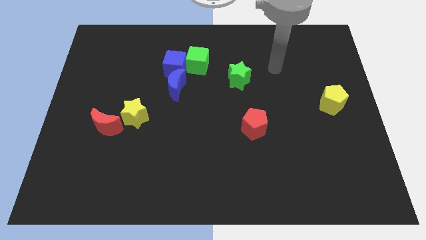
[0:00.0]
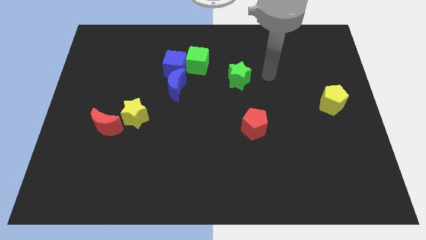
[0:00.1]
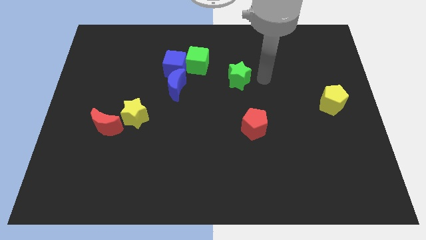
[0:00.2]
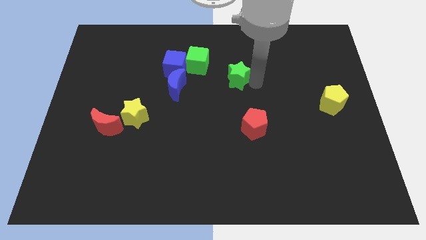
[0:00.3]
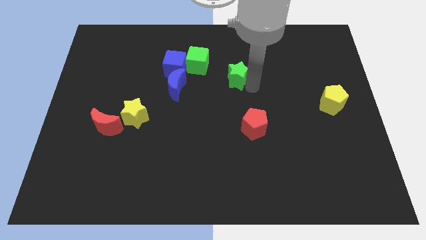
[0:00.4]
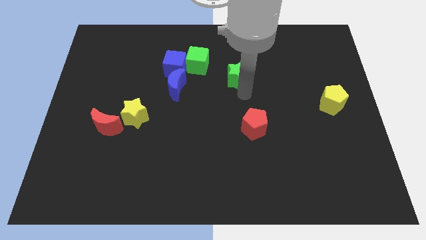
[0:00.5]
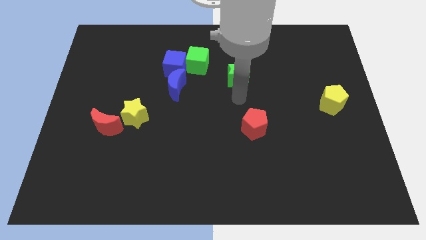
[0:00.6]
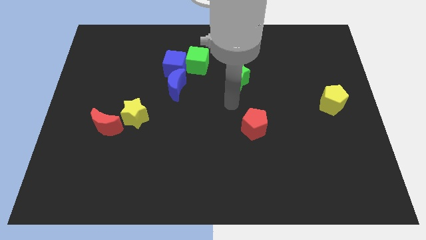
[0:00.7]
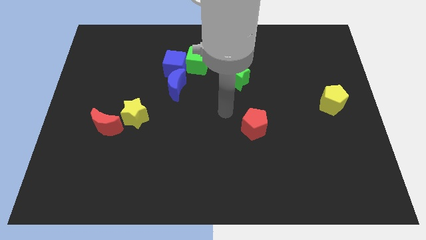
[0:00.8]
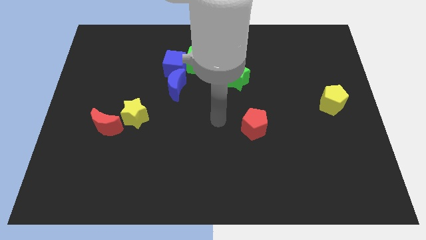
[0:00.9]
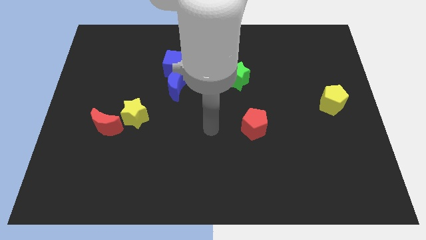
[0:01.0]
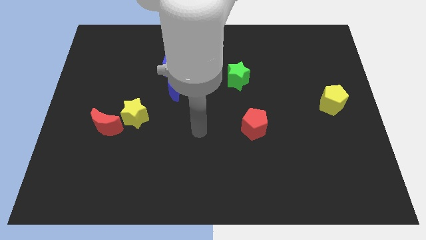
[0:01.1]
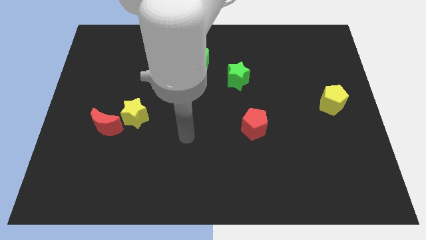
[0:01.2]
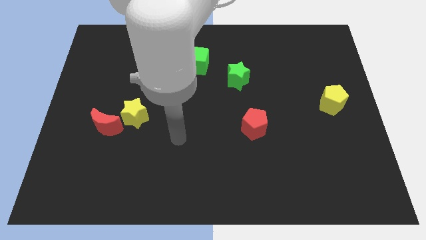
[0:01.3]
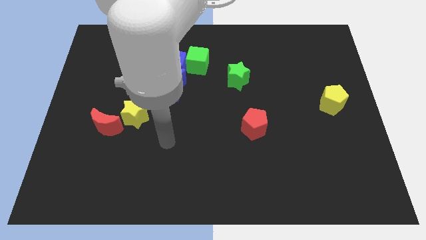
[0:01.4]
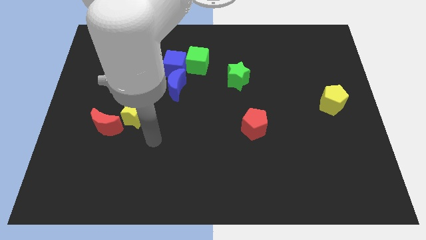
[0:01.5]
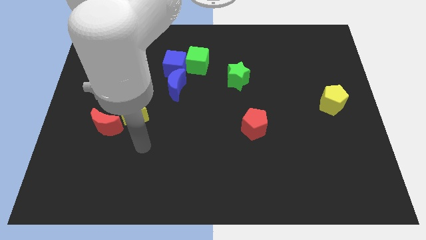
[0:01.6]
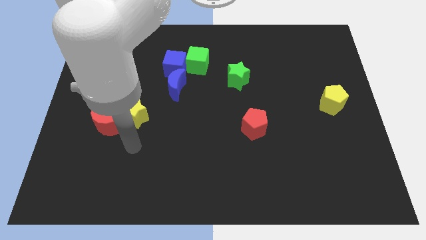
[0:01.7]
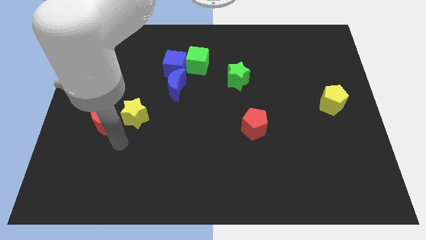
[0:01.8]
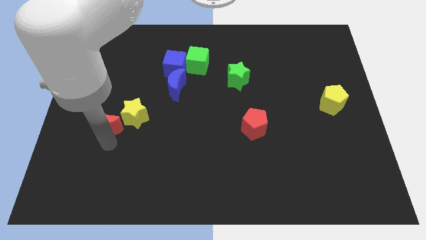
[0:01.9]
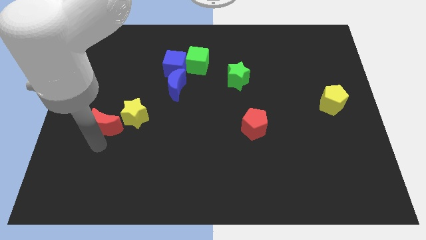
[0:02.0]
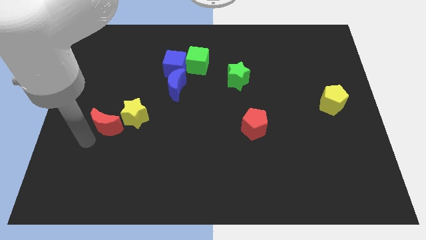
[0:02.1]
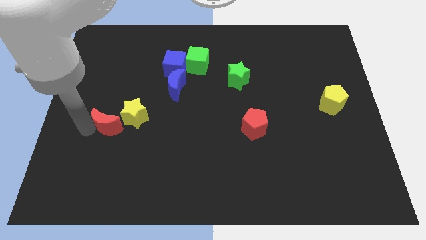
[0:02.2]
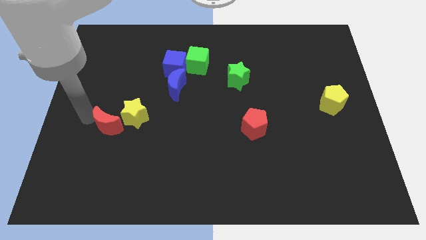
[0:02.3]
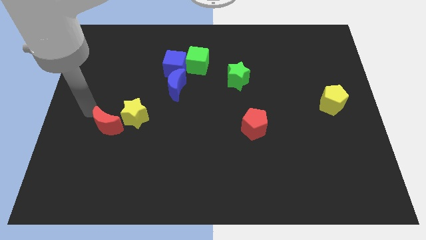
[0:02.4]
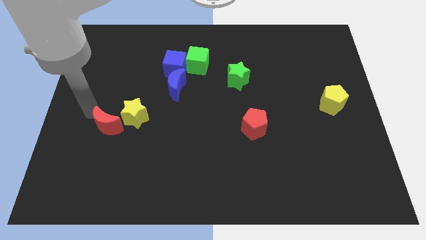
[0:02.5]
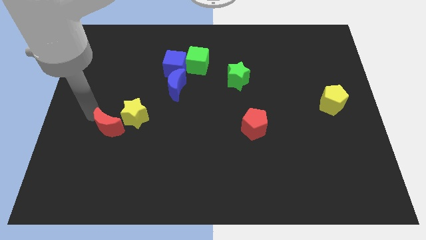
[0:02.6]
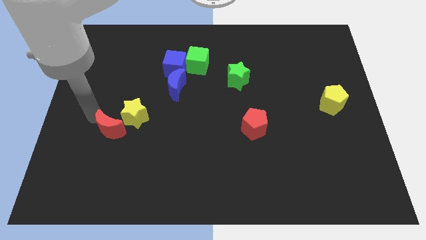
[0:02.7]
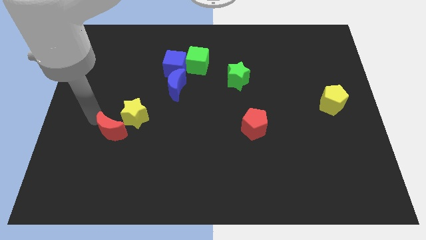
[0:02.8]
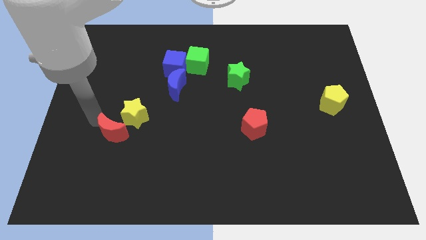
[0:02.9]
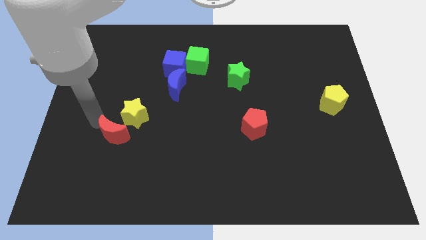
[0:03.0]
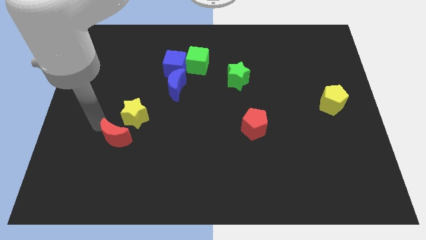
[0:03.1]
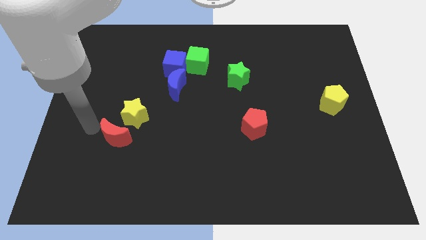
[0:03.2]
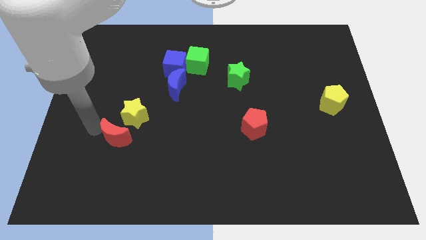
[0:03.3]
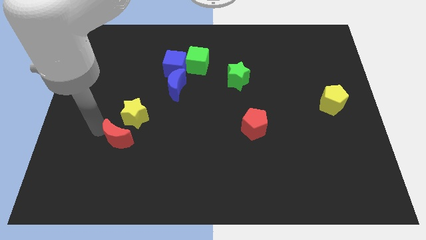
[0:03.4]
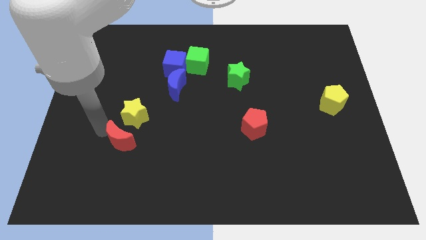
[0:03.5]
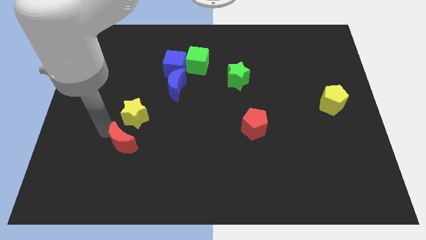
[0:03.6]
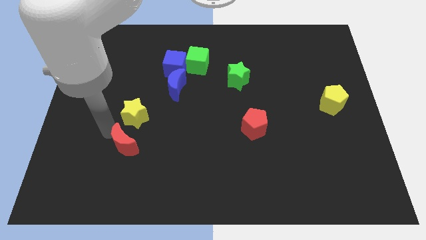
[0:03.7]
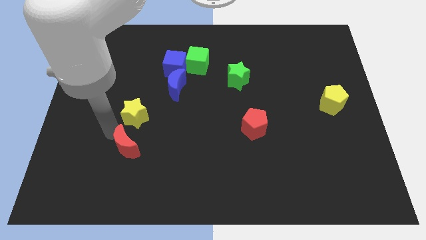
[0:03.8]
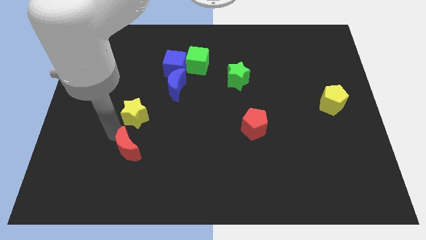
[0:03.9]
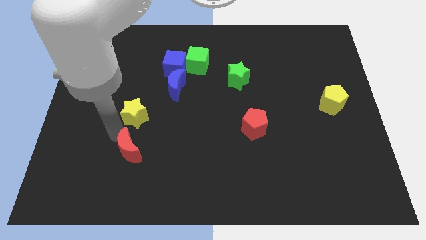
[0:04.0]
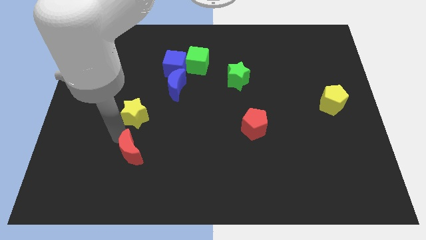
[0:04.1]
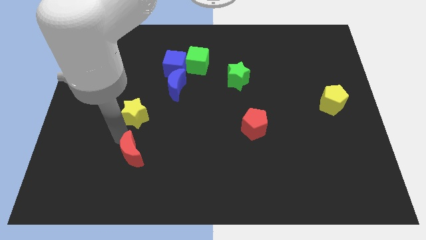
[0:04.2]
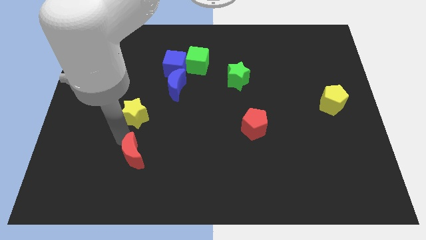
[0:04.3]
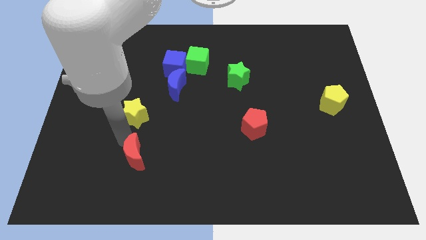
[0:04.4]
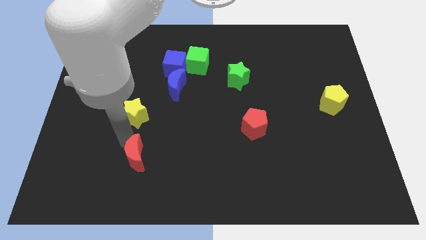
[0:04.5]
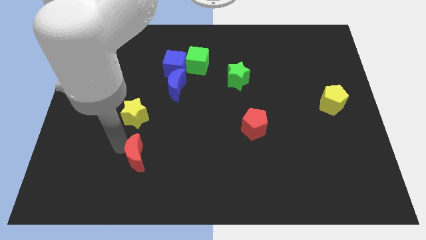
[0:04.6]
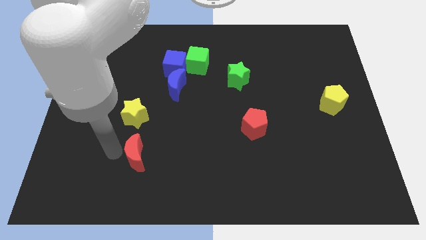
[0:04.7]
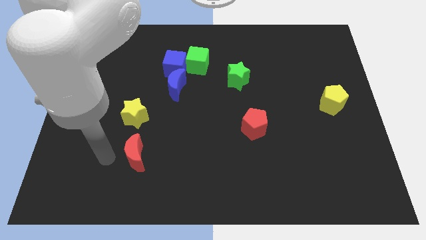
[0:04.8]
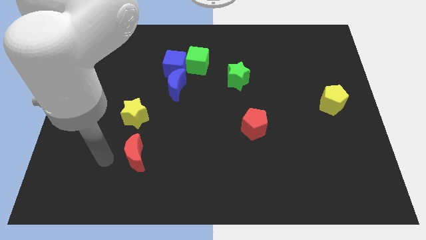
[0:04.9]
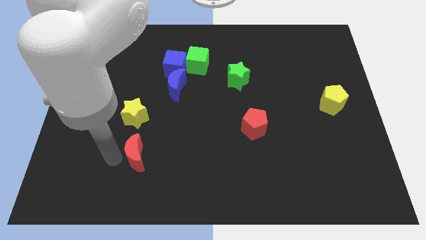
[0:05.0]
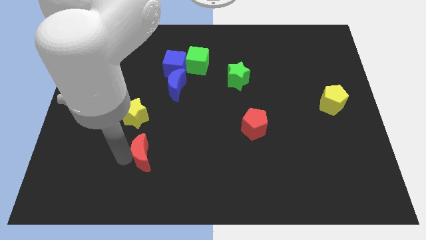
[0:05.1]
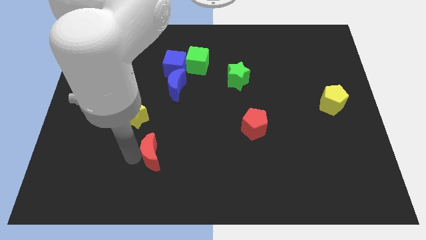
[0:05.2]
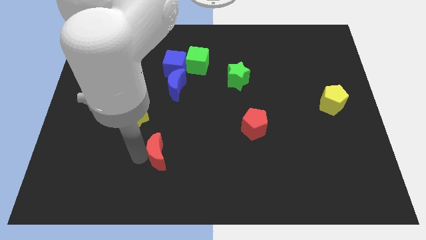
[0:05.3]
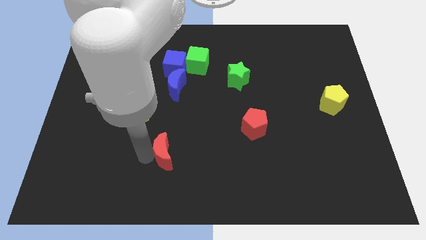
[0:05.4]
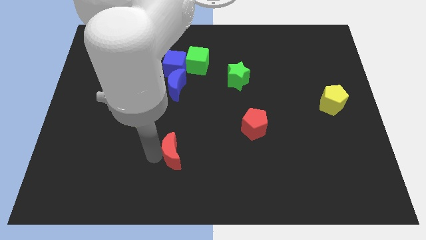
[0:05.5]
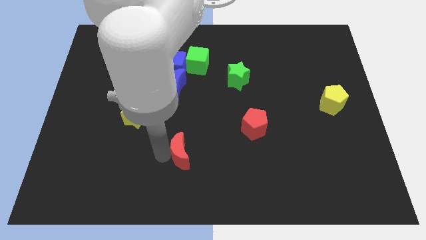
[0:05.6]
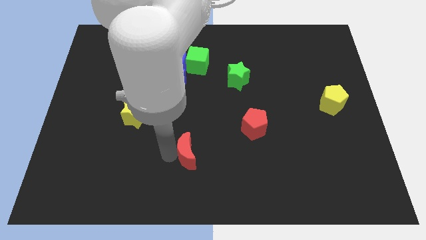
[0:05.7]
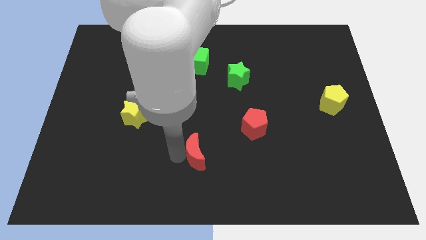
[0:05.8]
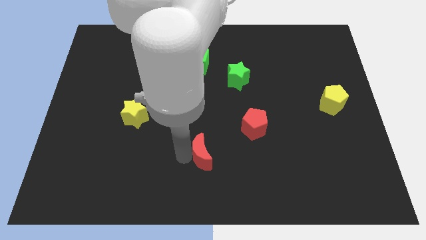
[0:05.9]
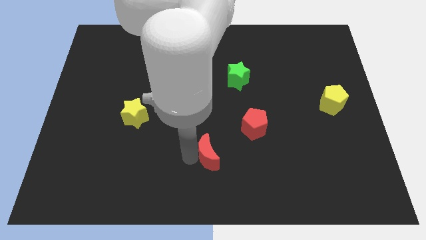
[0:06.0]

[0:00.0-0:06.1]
push the red moon to the bottom left of the red pentagon

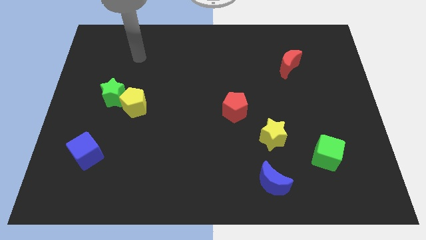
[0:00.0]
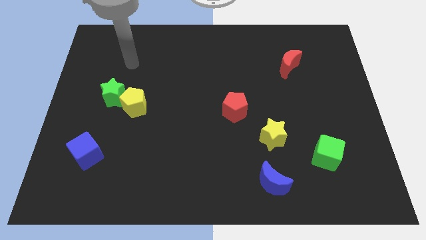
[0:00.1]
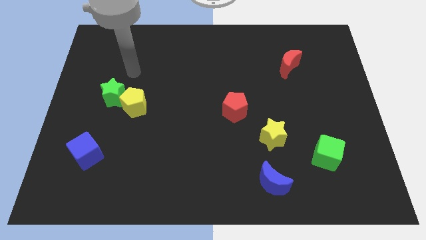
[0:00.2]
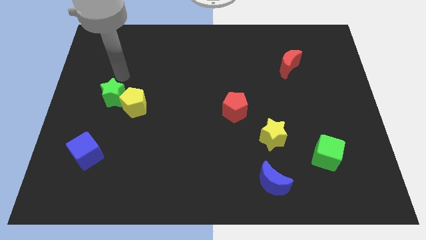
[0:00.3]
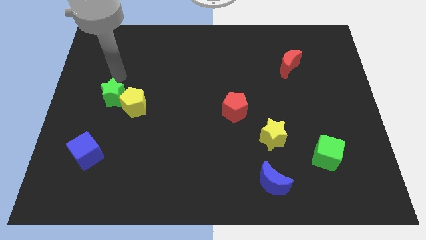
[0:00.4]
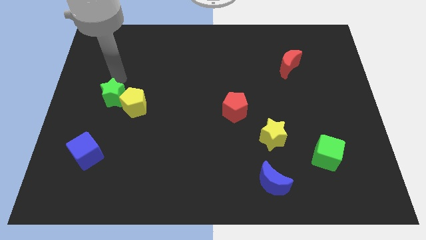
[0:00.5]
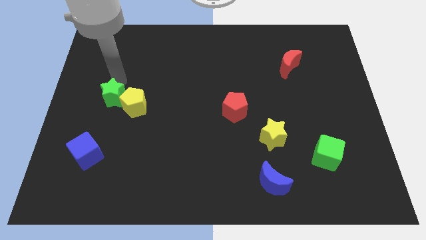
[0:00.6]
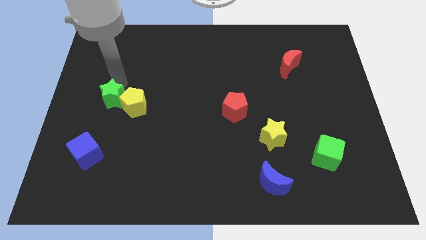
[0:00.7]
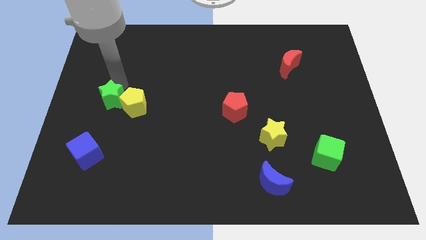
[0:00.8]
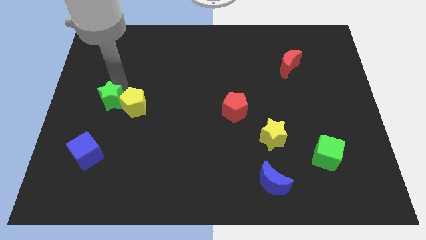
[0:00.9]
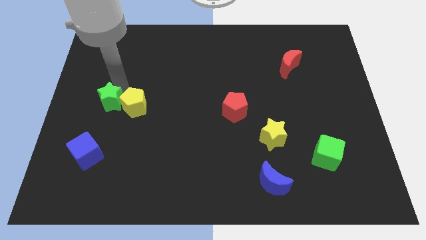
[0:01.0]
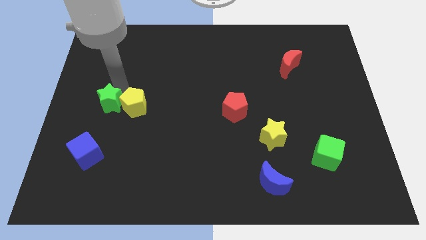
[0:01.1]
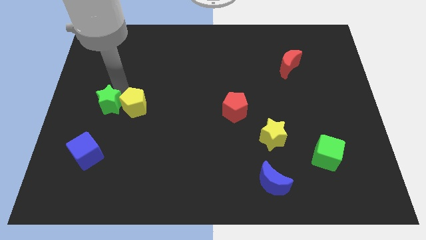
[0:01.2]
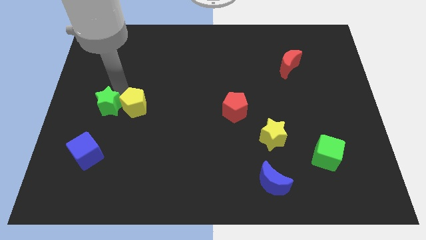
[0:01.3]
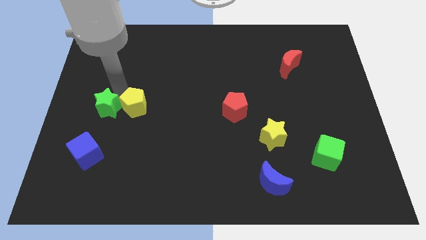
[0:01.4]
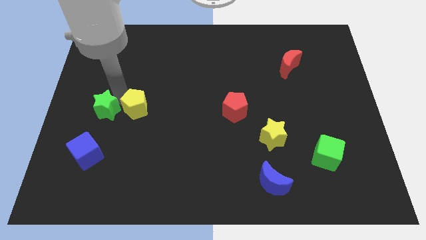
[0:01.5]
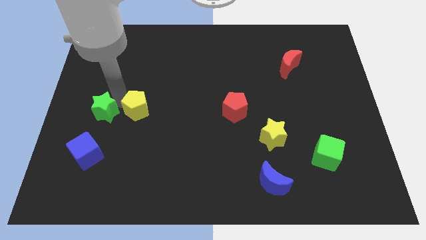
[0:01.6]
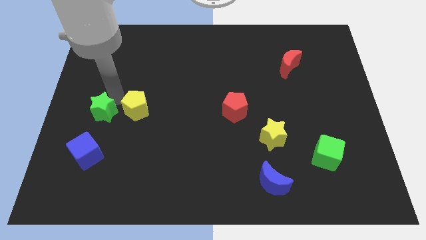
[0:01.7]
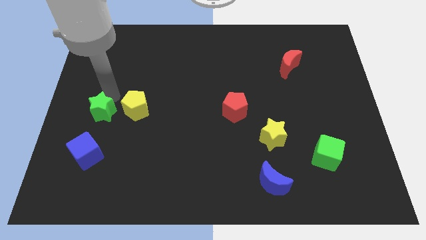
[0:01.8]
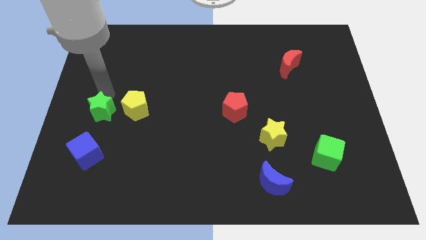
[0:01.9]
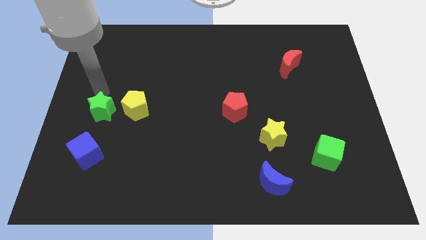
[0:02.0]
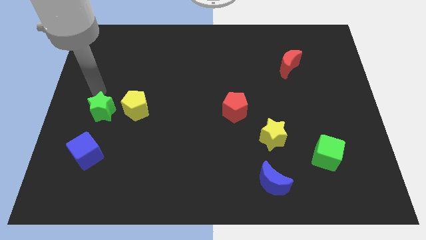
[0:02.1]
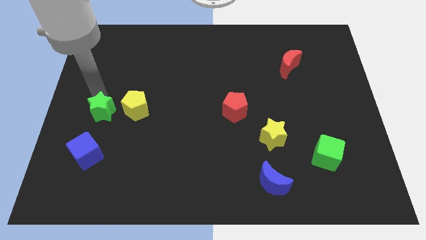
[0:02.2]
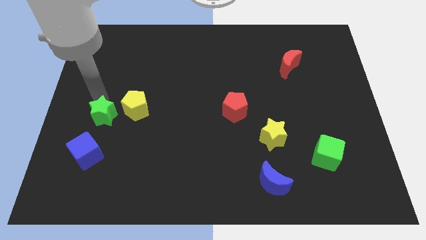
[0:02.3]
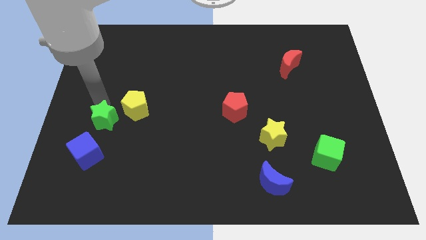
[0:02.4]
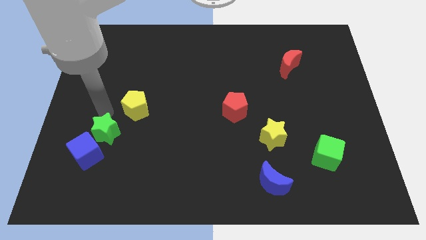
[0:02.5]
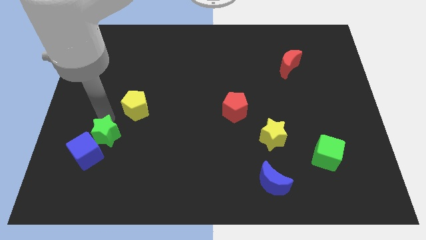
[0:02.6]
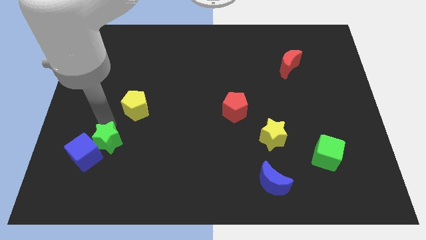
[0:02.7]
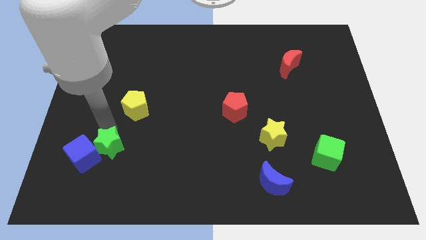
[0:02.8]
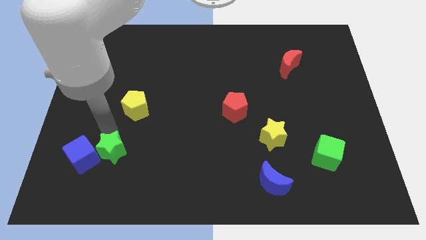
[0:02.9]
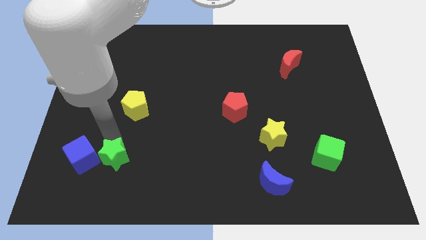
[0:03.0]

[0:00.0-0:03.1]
slide the green star diagonally down and to the right of the blue cube
